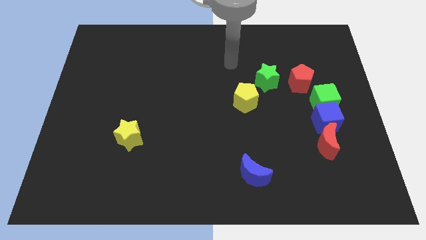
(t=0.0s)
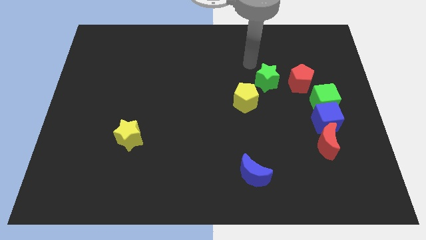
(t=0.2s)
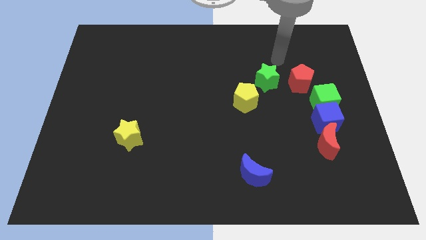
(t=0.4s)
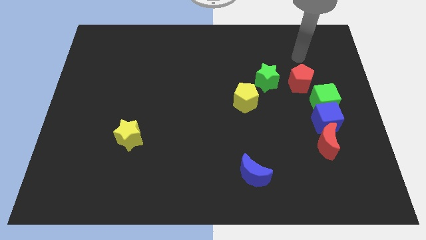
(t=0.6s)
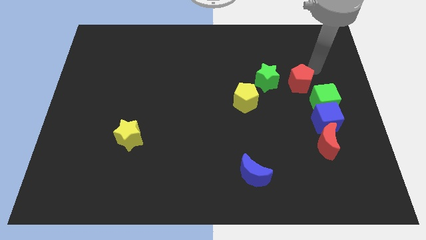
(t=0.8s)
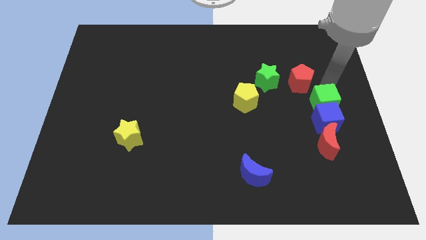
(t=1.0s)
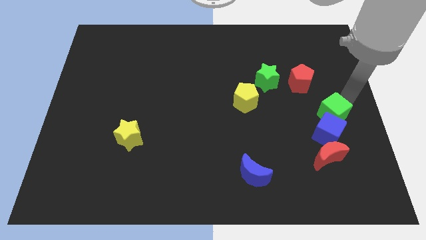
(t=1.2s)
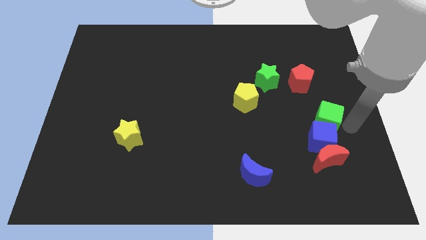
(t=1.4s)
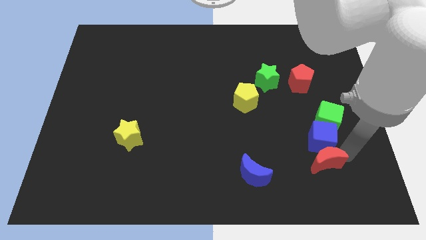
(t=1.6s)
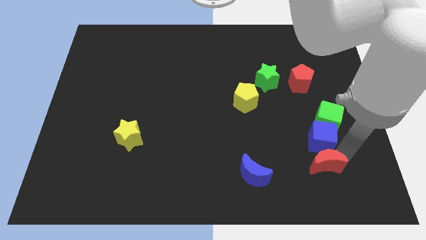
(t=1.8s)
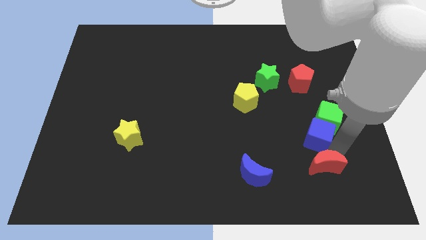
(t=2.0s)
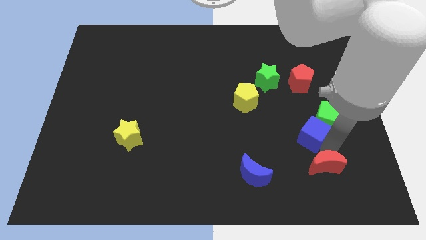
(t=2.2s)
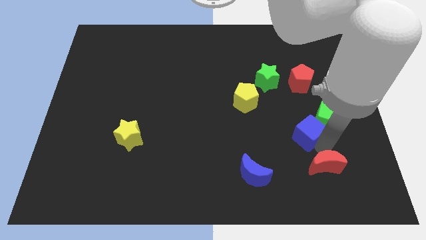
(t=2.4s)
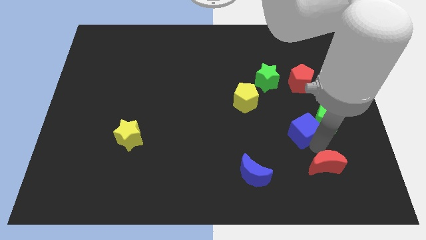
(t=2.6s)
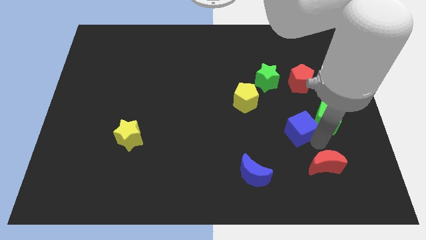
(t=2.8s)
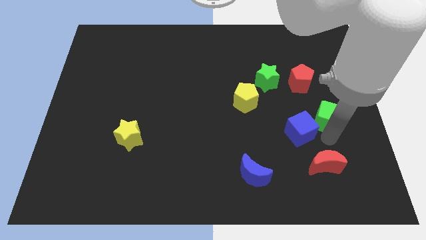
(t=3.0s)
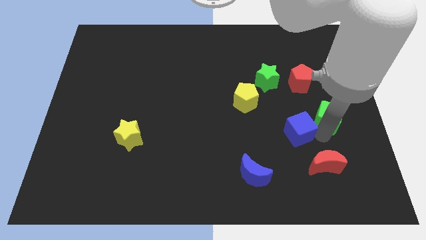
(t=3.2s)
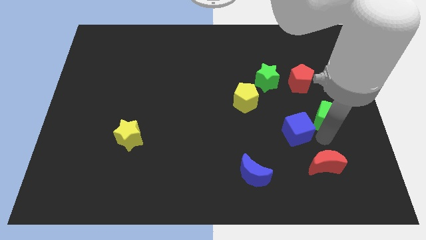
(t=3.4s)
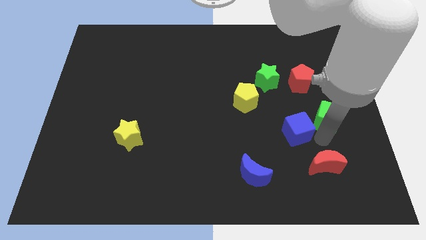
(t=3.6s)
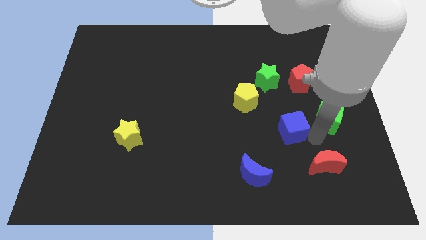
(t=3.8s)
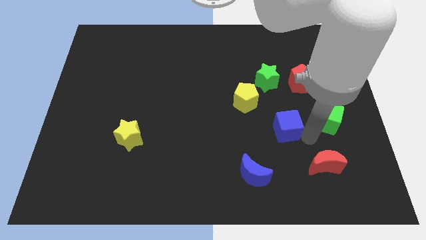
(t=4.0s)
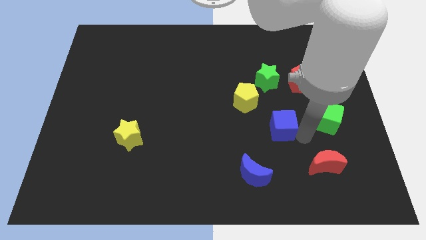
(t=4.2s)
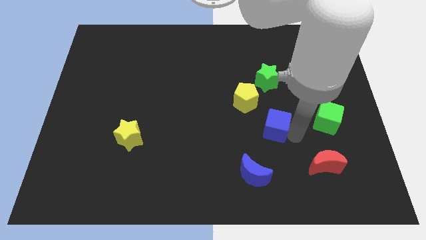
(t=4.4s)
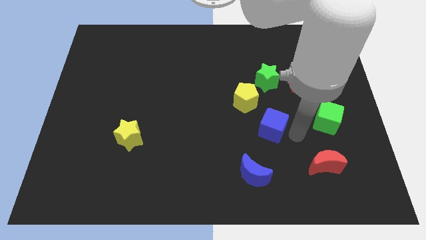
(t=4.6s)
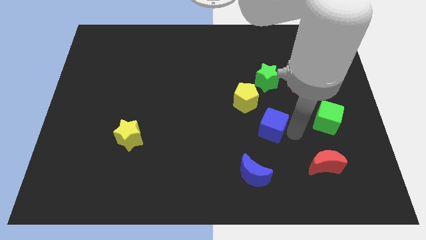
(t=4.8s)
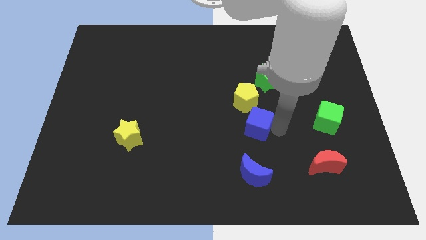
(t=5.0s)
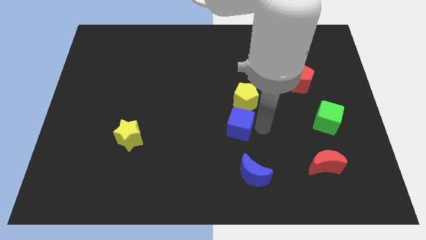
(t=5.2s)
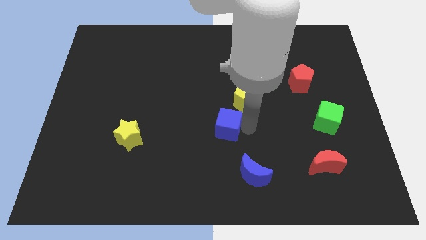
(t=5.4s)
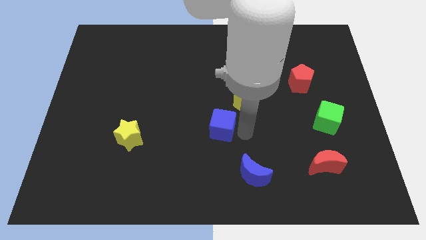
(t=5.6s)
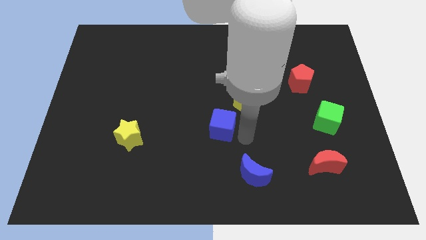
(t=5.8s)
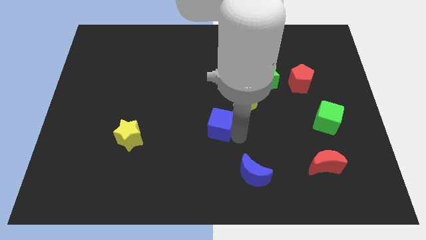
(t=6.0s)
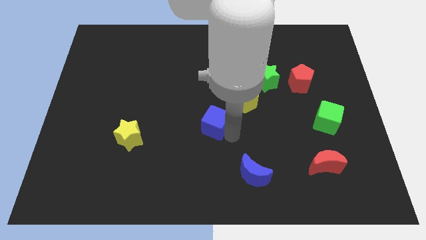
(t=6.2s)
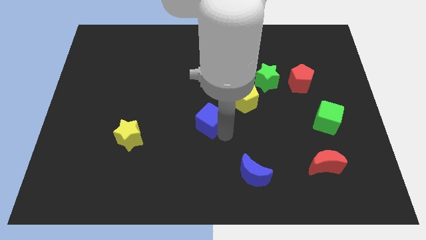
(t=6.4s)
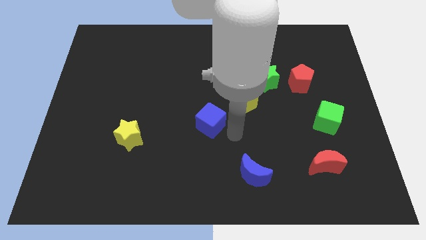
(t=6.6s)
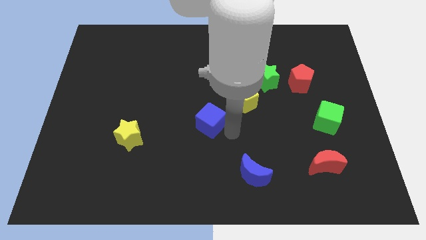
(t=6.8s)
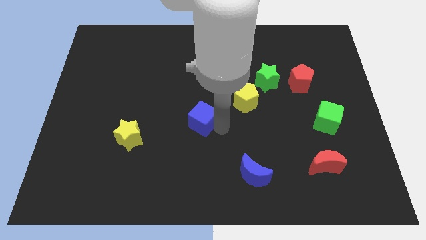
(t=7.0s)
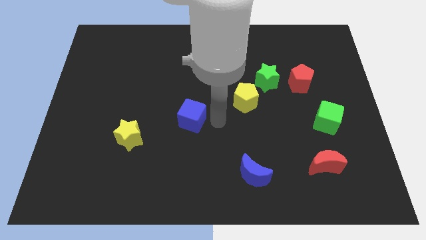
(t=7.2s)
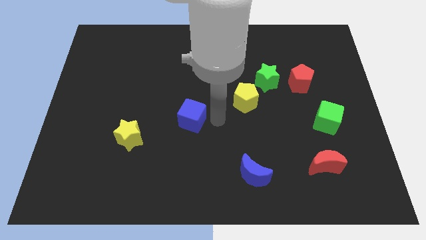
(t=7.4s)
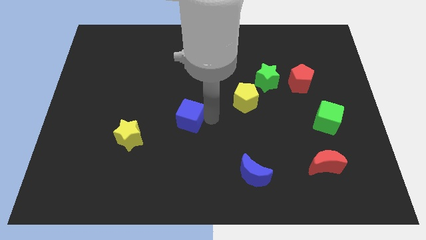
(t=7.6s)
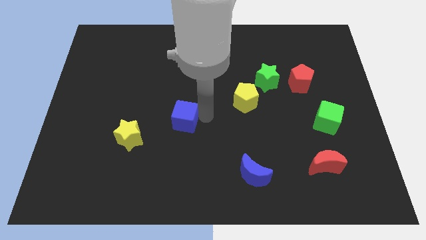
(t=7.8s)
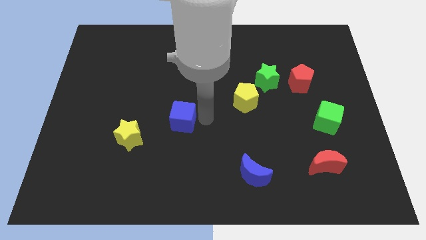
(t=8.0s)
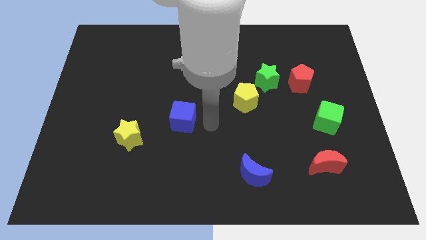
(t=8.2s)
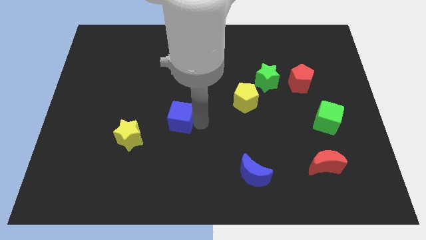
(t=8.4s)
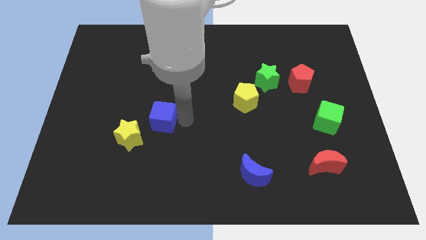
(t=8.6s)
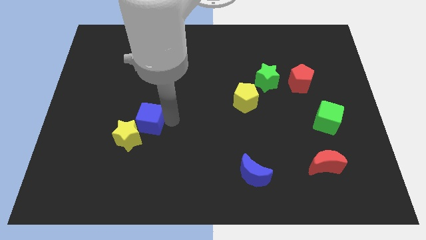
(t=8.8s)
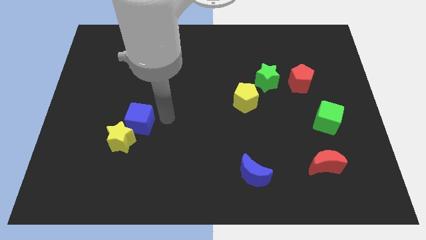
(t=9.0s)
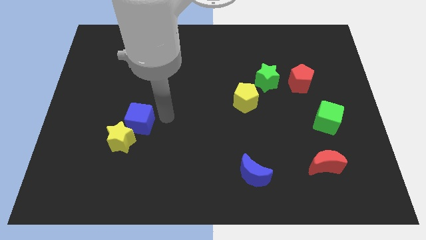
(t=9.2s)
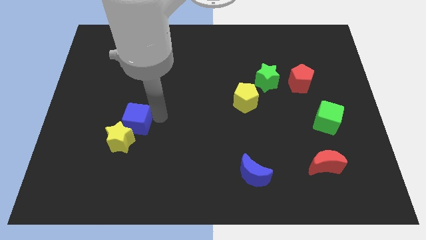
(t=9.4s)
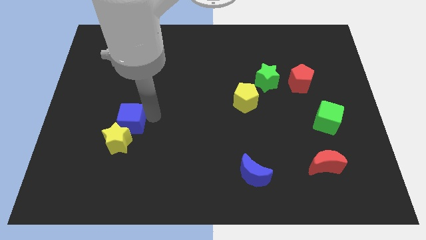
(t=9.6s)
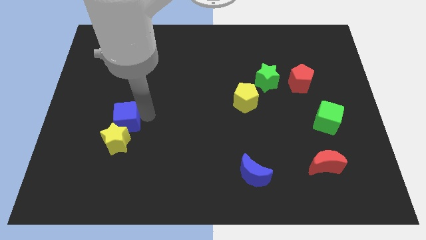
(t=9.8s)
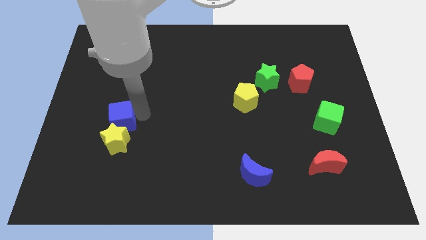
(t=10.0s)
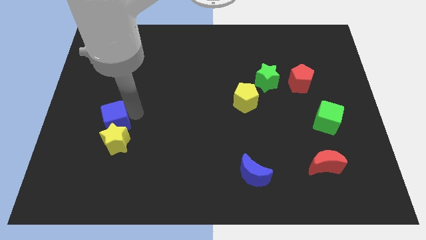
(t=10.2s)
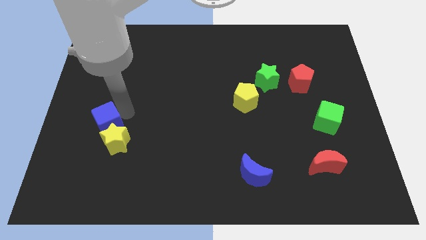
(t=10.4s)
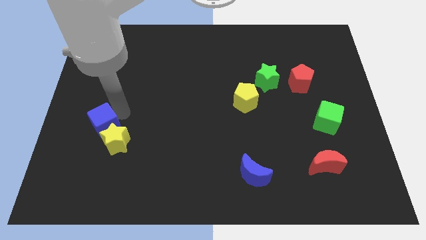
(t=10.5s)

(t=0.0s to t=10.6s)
slide the blue cube just left of the yellow star

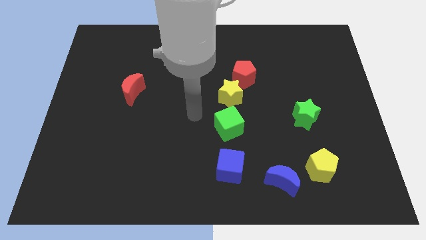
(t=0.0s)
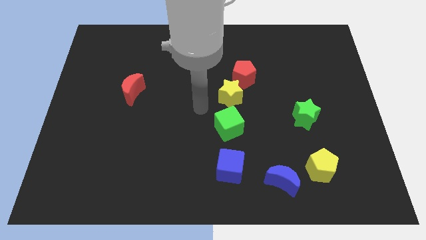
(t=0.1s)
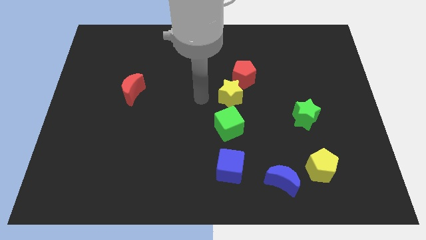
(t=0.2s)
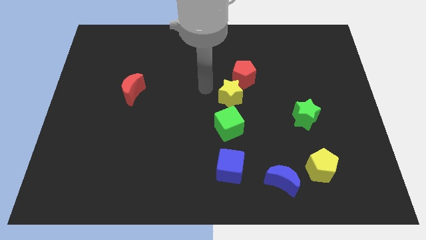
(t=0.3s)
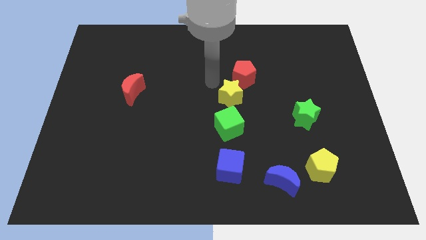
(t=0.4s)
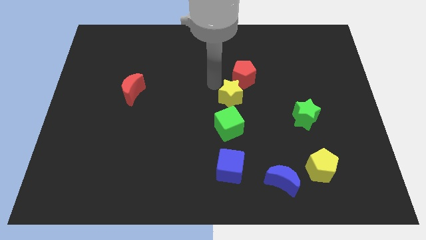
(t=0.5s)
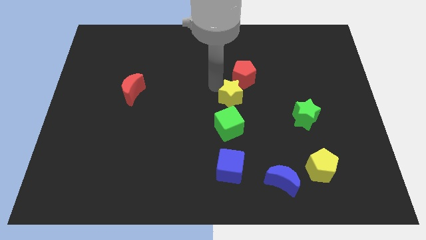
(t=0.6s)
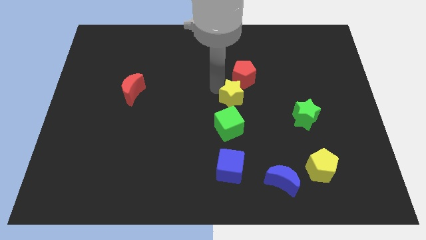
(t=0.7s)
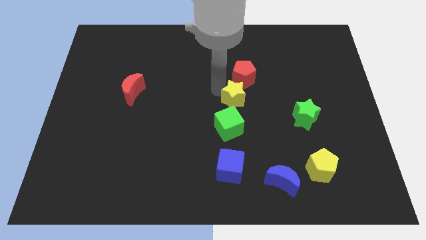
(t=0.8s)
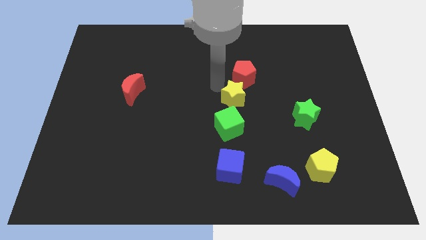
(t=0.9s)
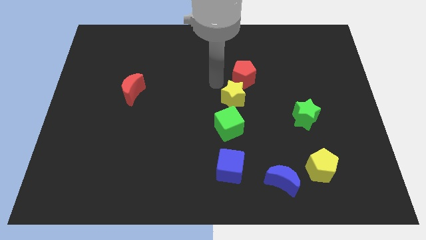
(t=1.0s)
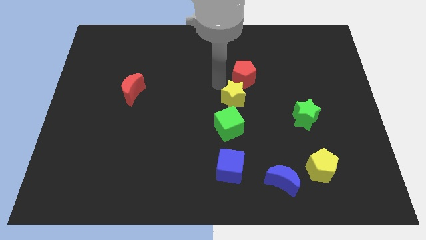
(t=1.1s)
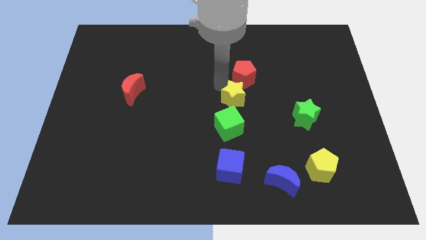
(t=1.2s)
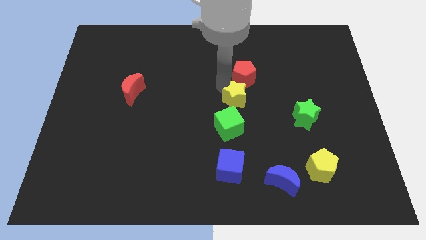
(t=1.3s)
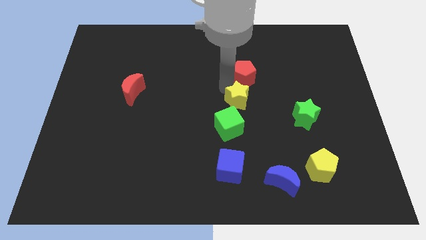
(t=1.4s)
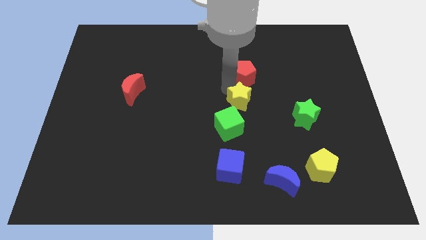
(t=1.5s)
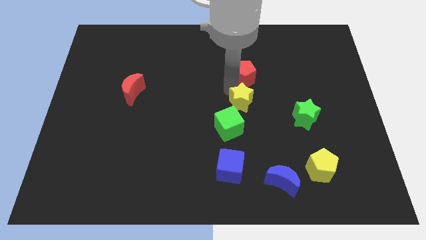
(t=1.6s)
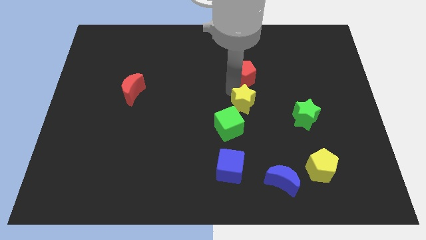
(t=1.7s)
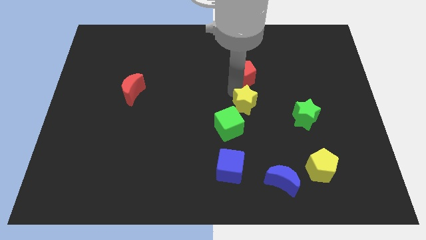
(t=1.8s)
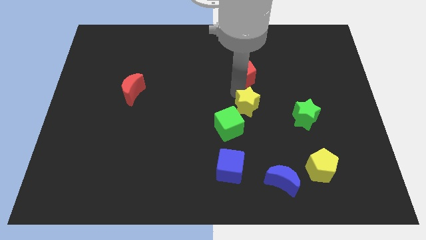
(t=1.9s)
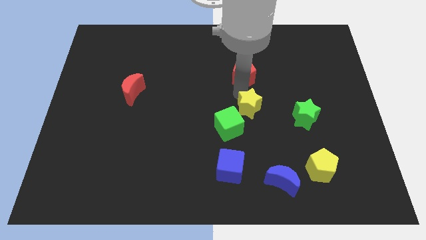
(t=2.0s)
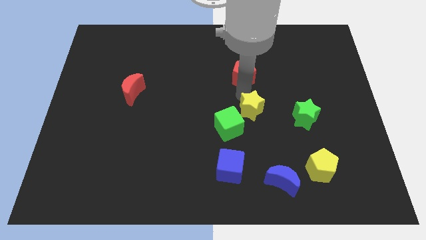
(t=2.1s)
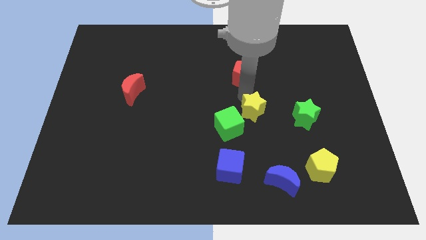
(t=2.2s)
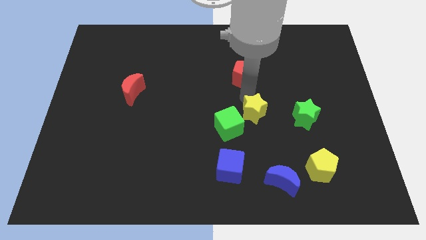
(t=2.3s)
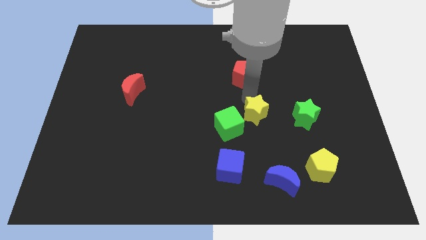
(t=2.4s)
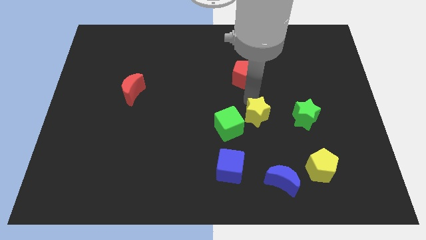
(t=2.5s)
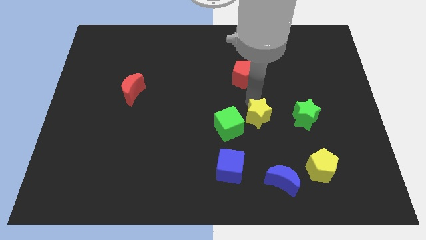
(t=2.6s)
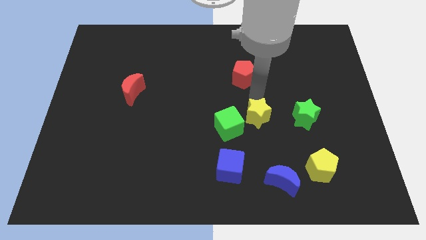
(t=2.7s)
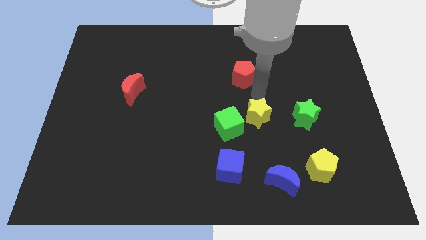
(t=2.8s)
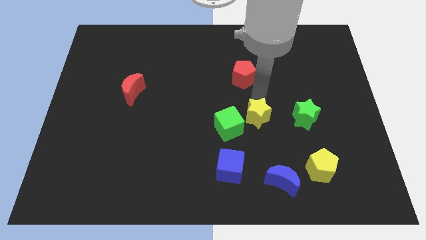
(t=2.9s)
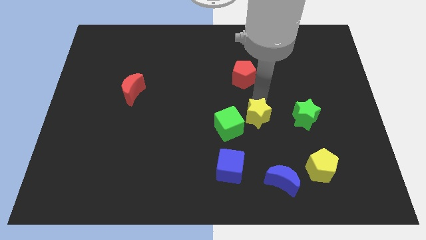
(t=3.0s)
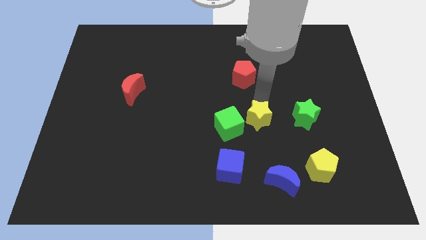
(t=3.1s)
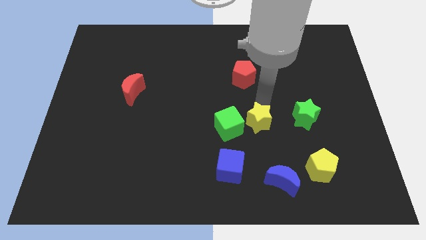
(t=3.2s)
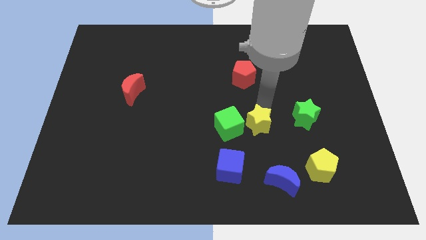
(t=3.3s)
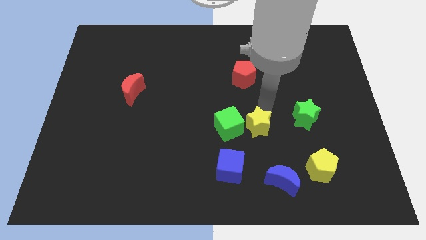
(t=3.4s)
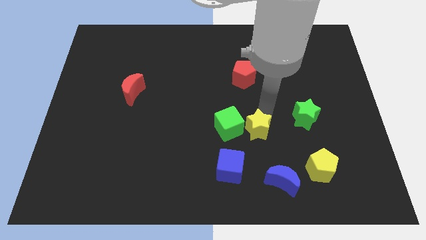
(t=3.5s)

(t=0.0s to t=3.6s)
push the yellow star to the top right side of the blue cube
